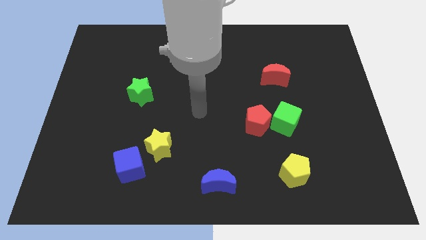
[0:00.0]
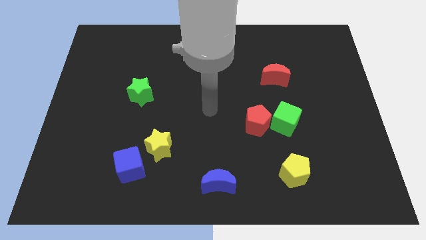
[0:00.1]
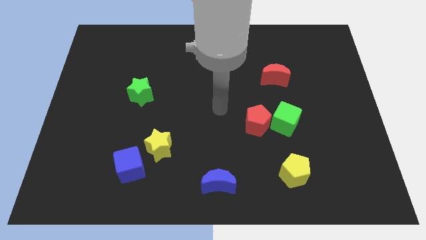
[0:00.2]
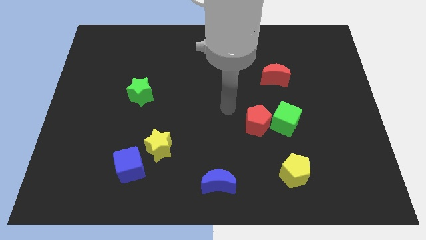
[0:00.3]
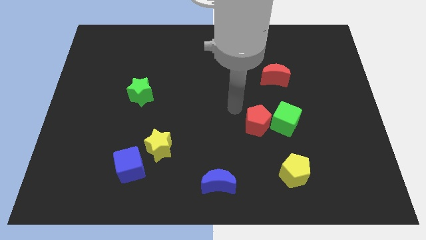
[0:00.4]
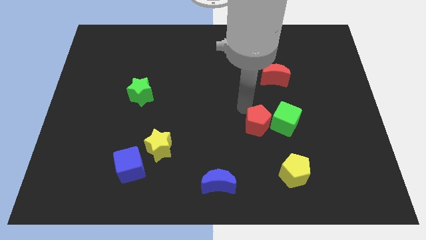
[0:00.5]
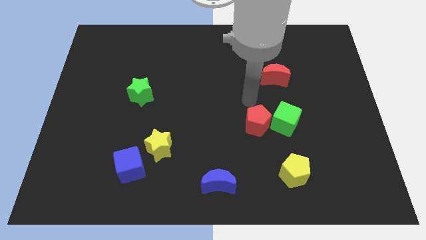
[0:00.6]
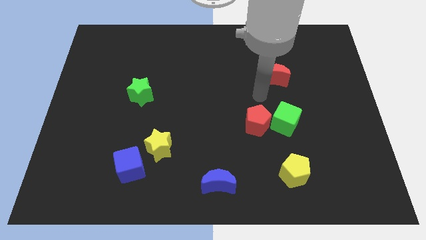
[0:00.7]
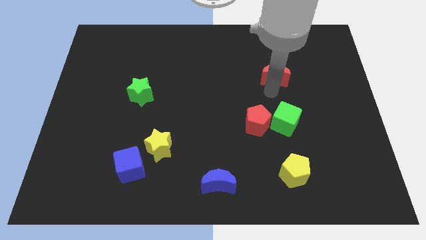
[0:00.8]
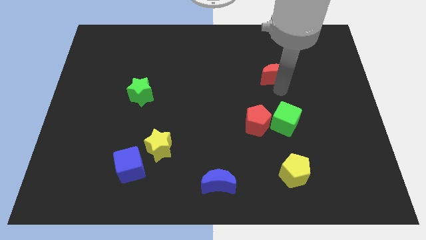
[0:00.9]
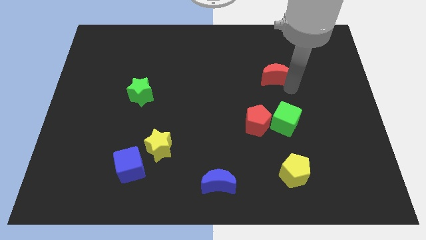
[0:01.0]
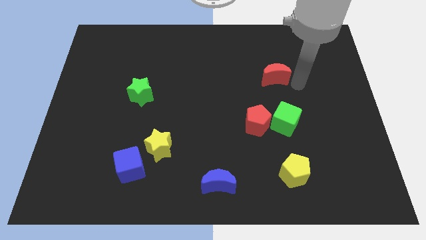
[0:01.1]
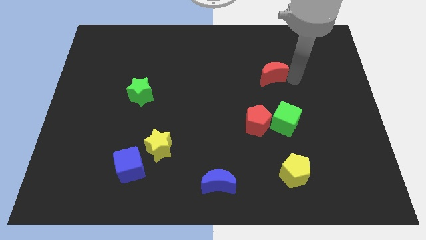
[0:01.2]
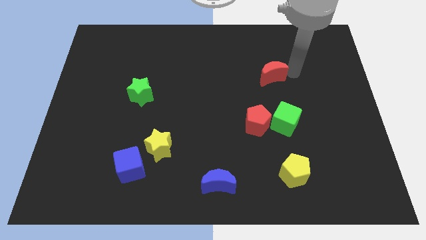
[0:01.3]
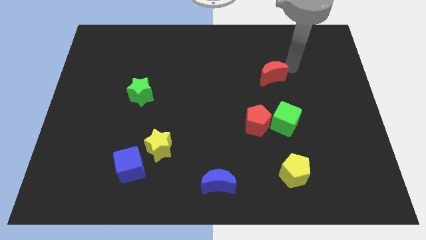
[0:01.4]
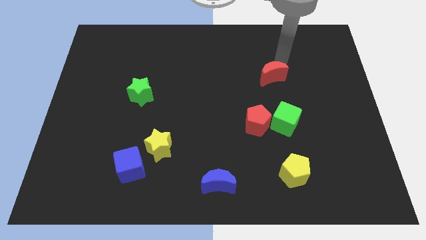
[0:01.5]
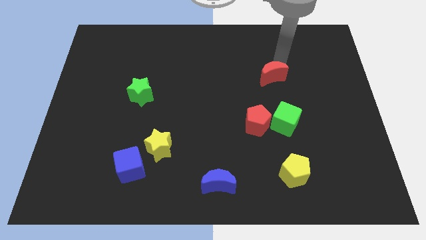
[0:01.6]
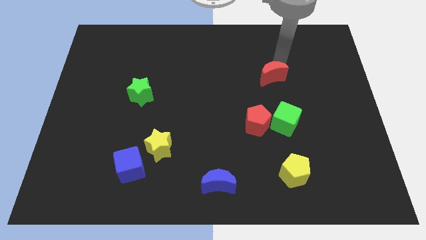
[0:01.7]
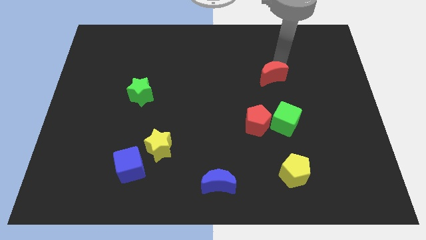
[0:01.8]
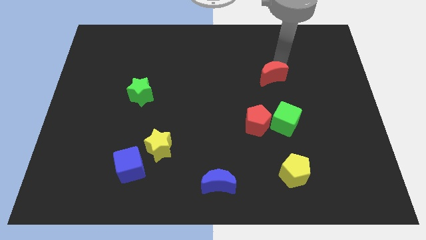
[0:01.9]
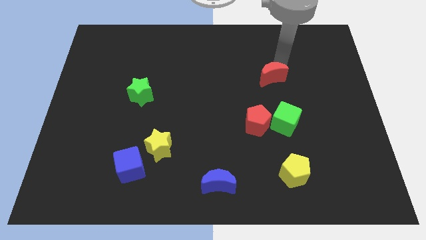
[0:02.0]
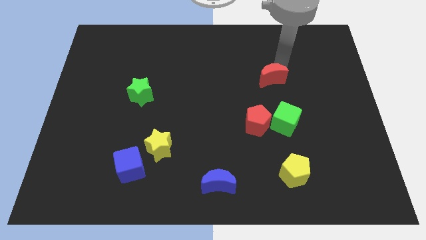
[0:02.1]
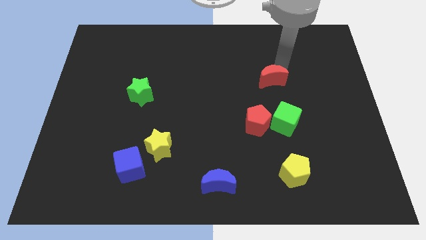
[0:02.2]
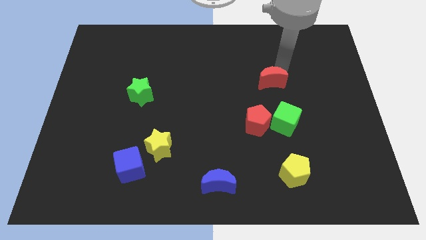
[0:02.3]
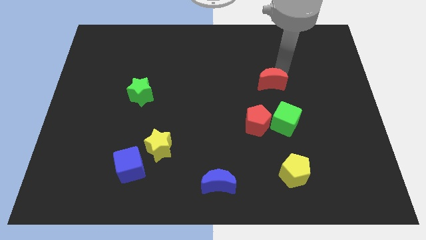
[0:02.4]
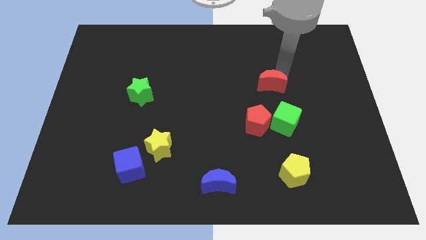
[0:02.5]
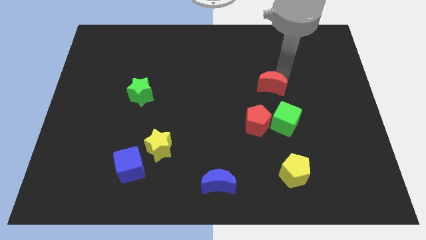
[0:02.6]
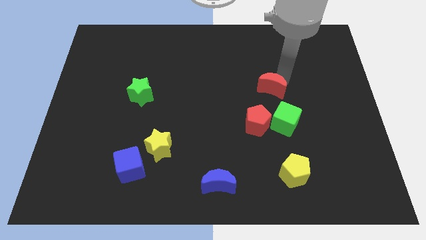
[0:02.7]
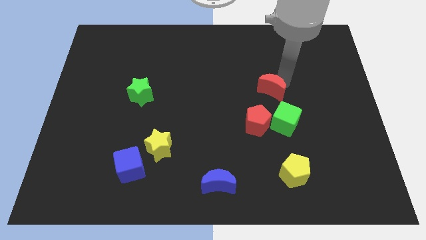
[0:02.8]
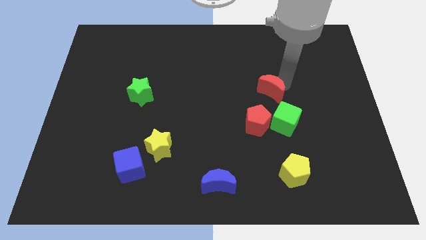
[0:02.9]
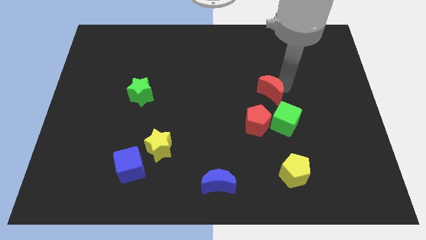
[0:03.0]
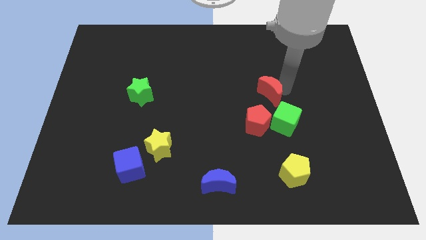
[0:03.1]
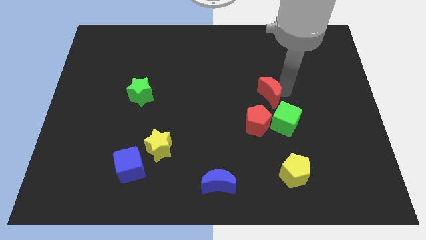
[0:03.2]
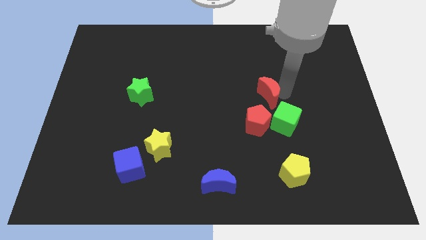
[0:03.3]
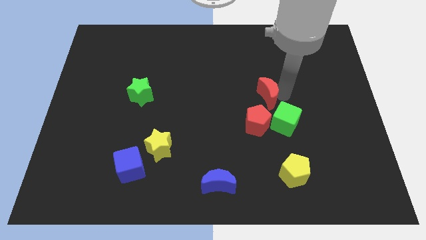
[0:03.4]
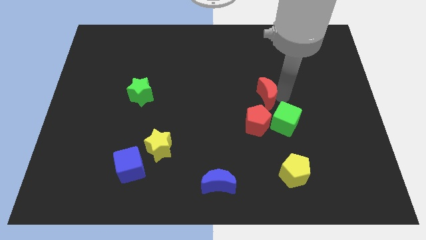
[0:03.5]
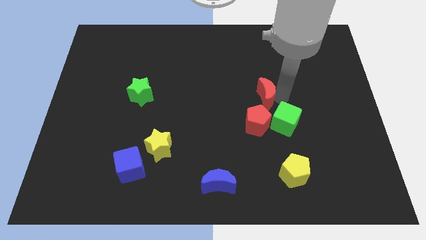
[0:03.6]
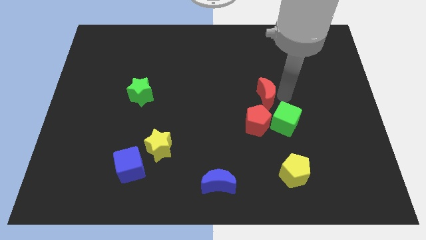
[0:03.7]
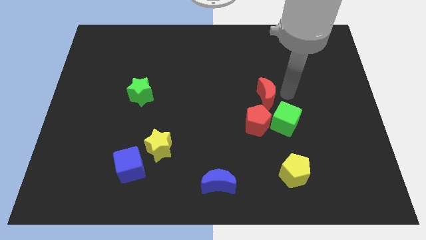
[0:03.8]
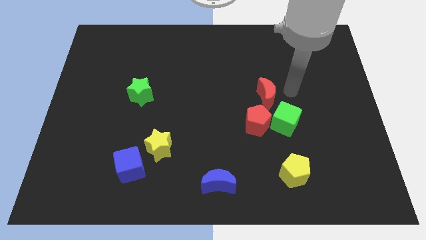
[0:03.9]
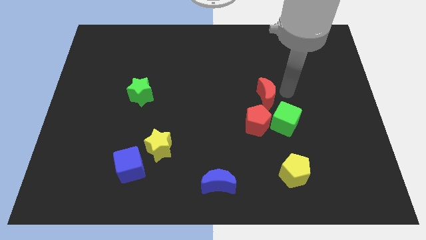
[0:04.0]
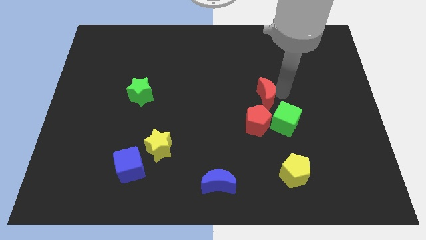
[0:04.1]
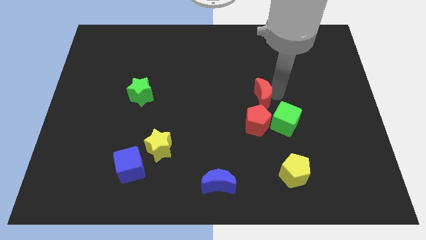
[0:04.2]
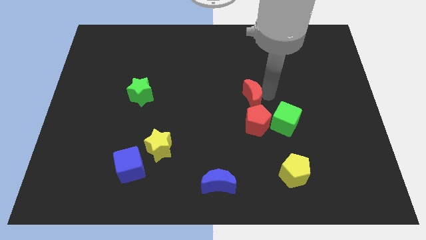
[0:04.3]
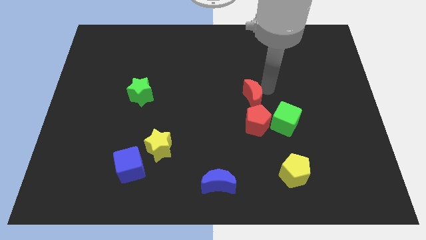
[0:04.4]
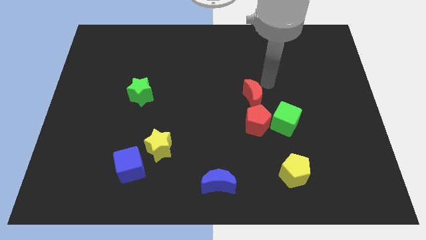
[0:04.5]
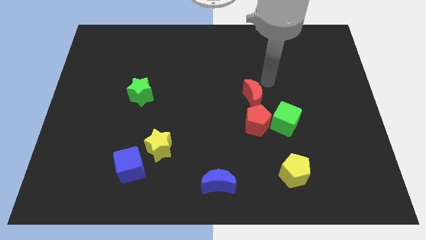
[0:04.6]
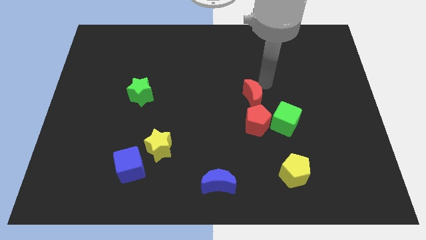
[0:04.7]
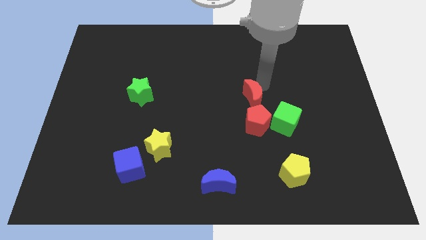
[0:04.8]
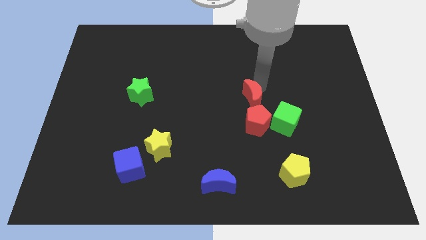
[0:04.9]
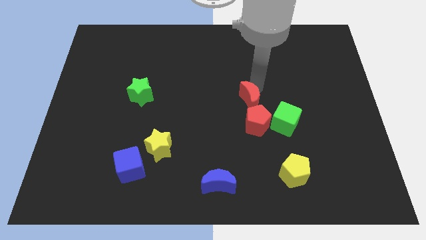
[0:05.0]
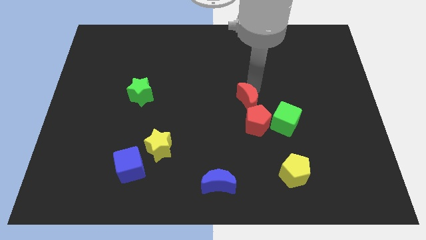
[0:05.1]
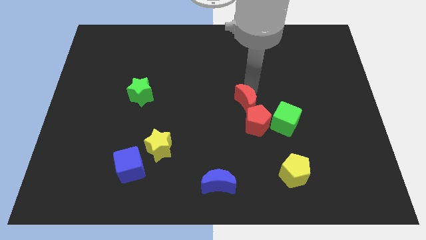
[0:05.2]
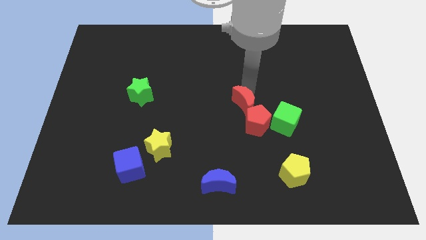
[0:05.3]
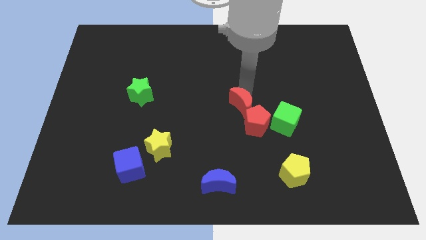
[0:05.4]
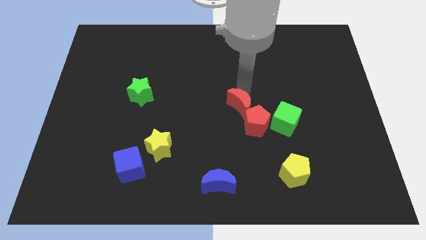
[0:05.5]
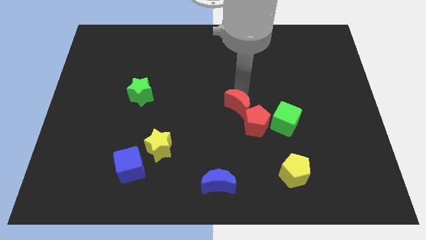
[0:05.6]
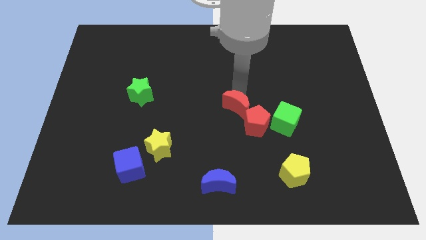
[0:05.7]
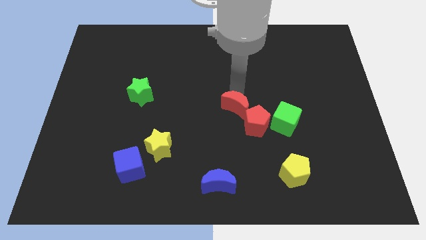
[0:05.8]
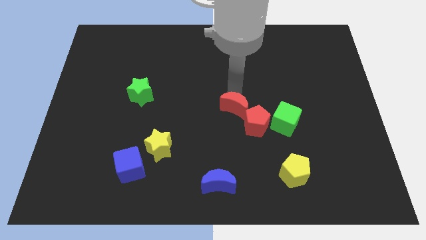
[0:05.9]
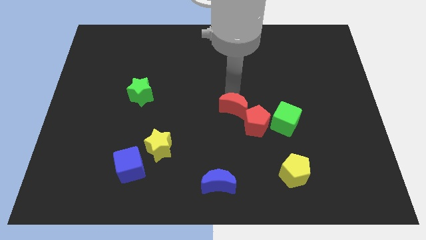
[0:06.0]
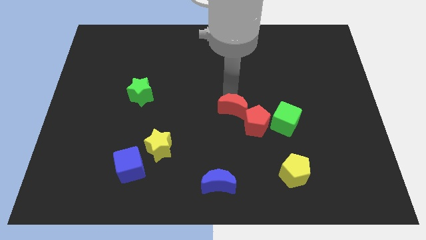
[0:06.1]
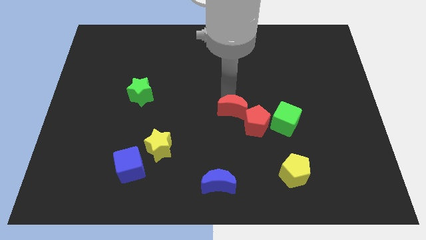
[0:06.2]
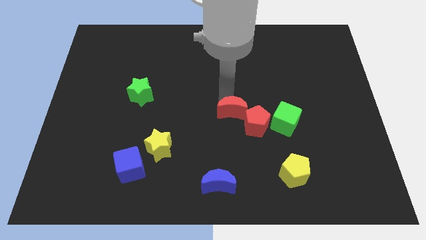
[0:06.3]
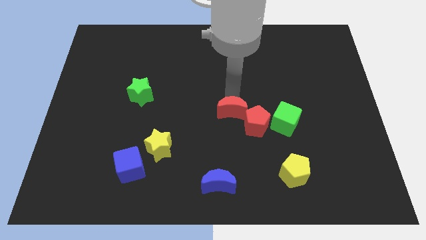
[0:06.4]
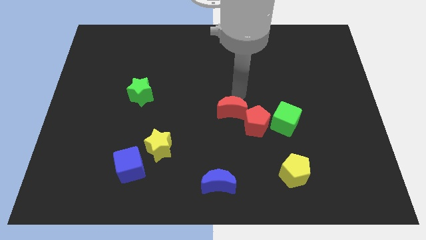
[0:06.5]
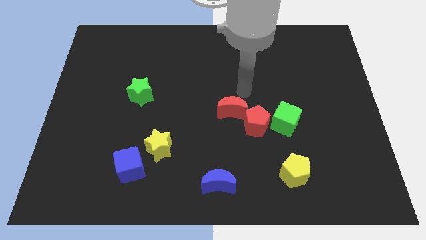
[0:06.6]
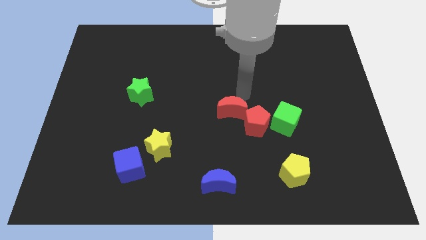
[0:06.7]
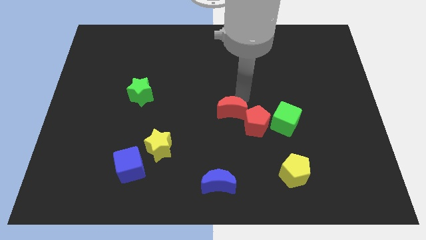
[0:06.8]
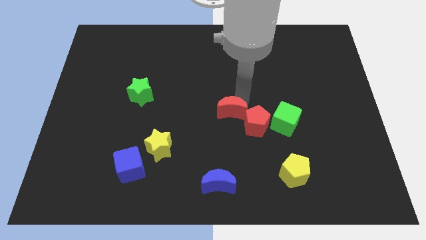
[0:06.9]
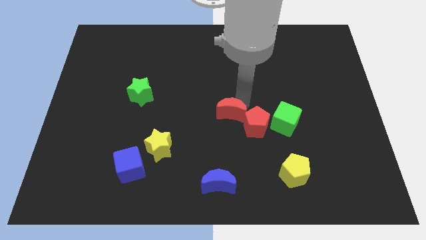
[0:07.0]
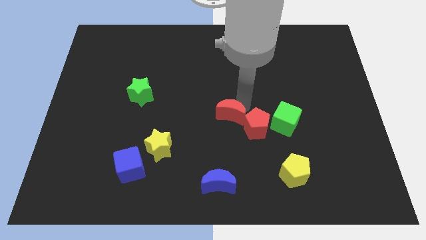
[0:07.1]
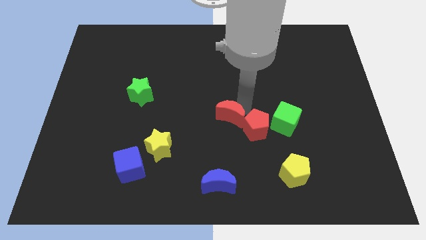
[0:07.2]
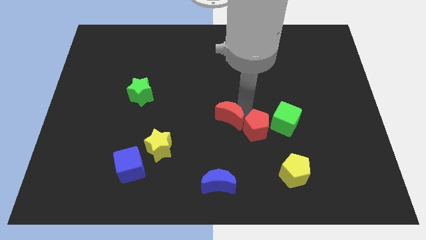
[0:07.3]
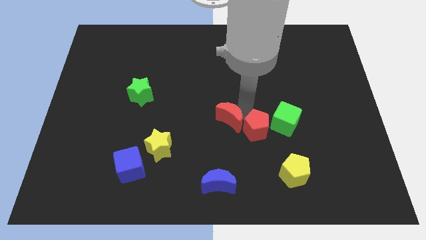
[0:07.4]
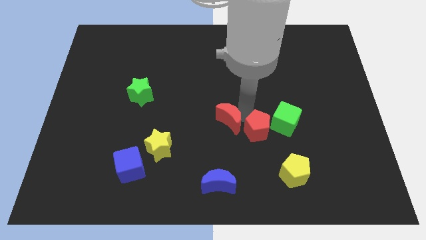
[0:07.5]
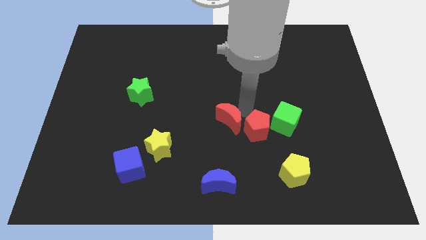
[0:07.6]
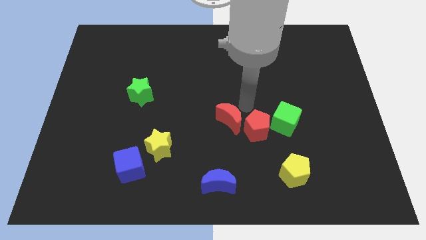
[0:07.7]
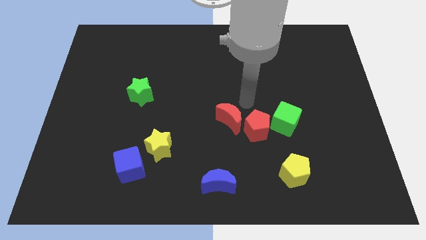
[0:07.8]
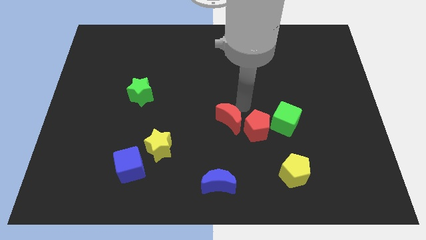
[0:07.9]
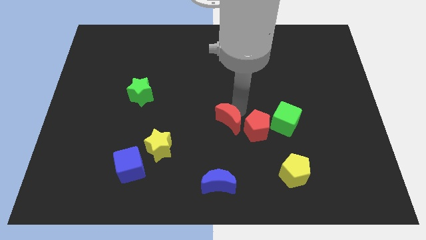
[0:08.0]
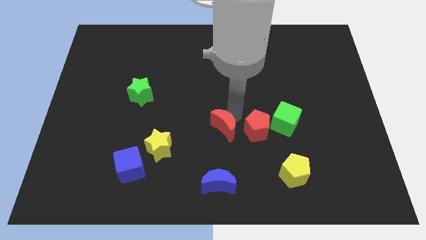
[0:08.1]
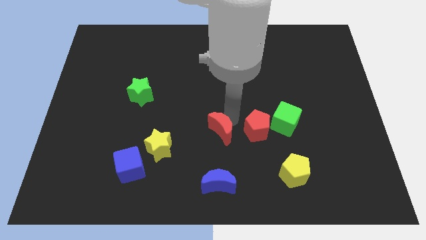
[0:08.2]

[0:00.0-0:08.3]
move the red moon down and to the left diagonally
